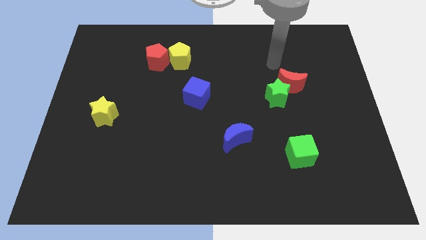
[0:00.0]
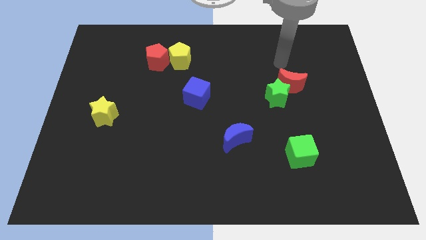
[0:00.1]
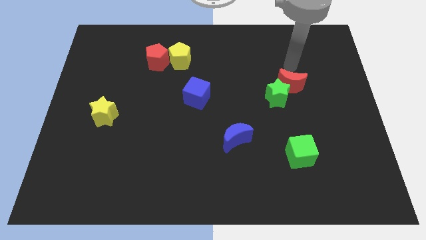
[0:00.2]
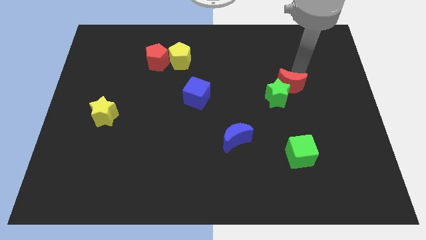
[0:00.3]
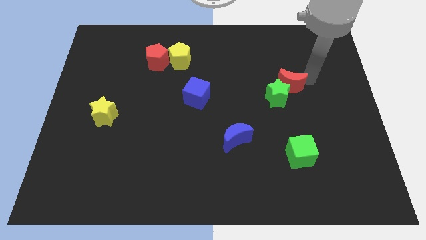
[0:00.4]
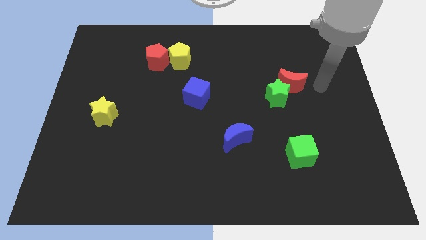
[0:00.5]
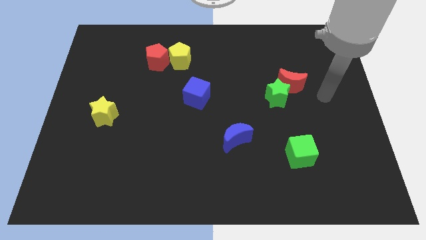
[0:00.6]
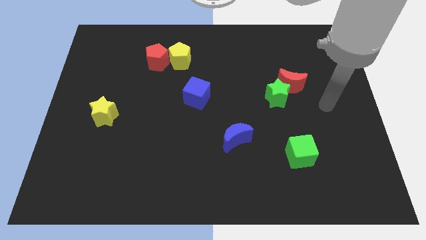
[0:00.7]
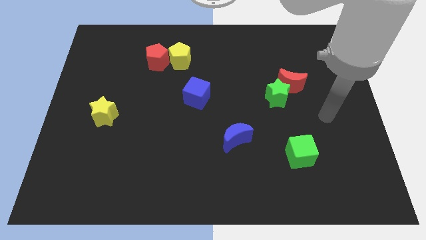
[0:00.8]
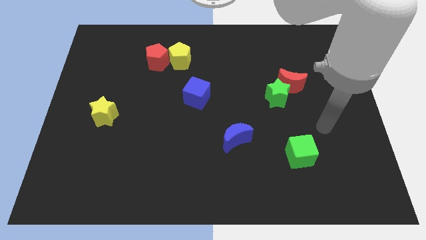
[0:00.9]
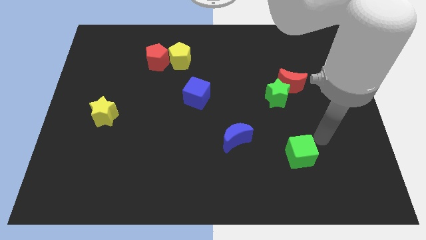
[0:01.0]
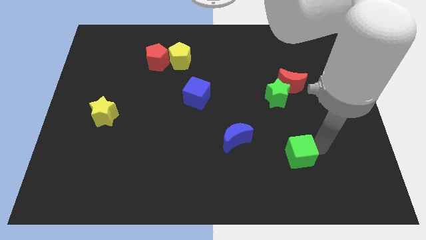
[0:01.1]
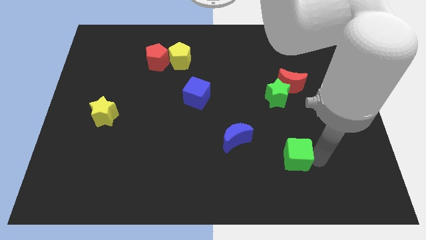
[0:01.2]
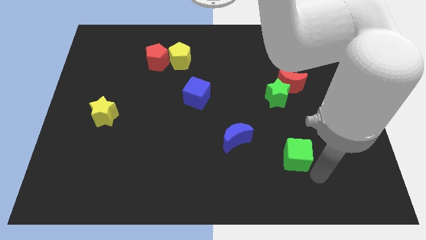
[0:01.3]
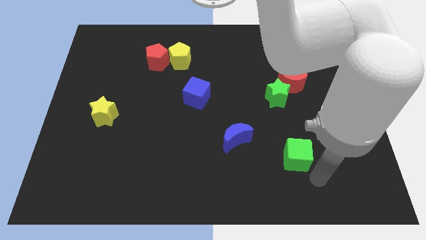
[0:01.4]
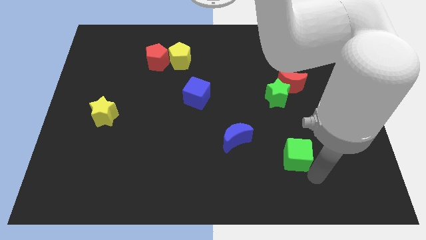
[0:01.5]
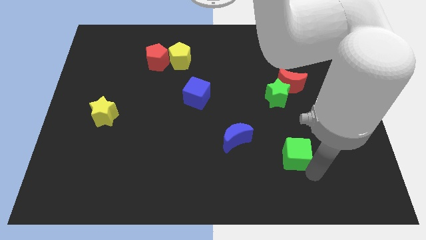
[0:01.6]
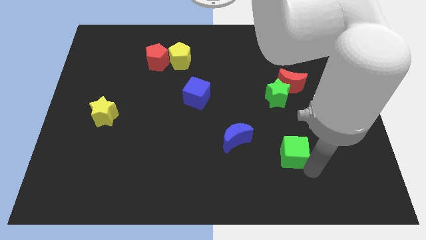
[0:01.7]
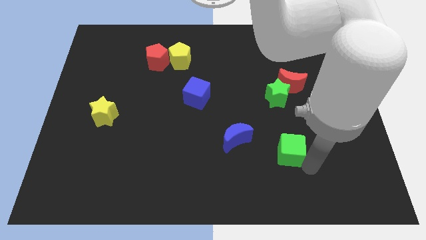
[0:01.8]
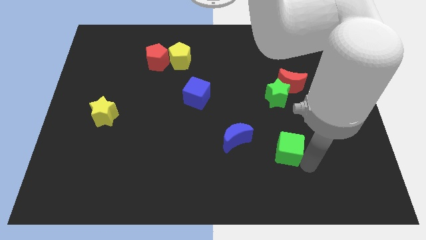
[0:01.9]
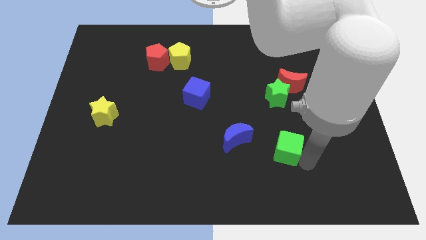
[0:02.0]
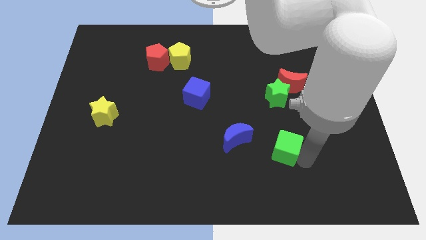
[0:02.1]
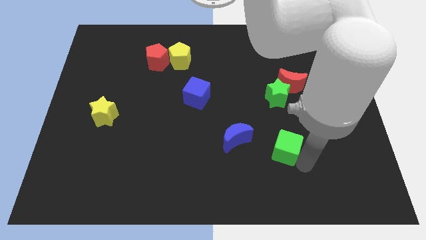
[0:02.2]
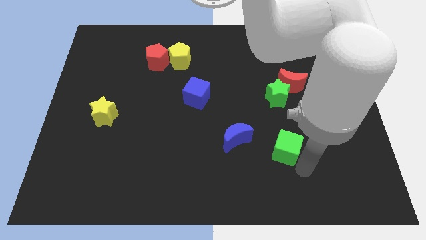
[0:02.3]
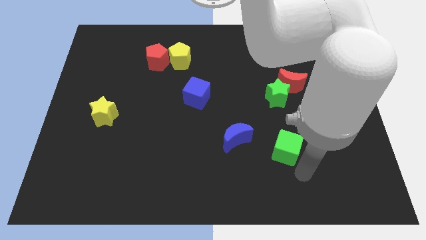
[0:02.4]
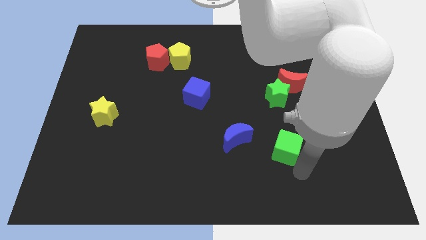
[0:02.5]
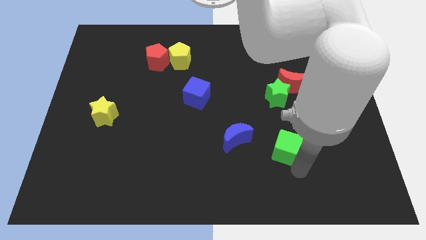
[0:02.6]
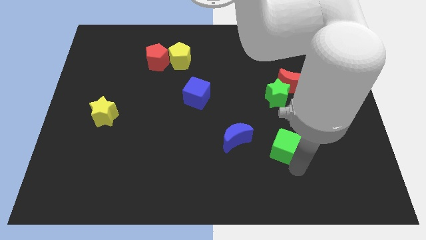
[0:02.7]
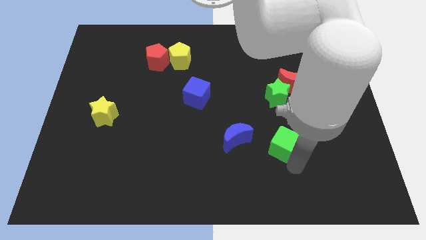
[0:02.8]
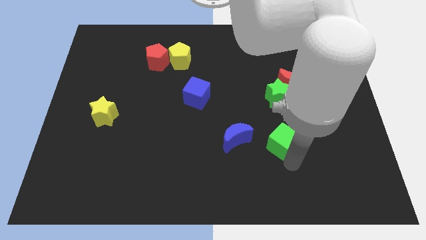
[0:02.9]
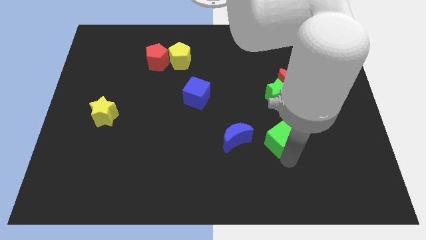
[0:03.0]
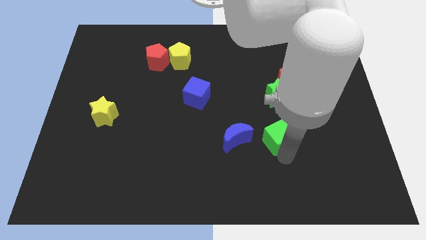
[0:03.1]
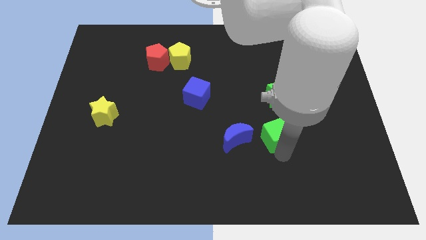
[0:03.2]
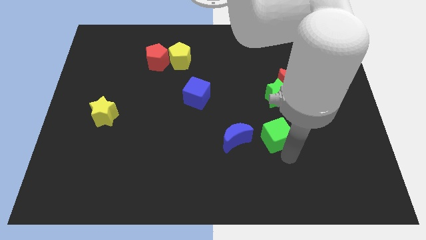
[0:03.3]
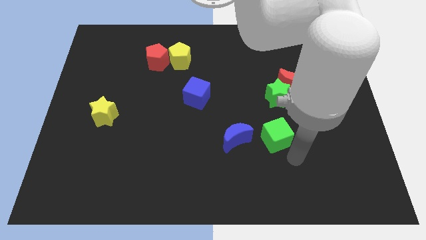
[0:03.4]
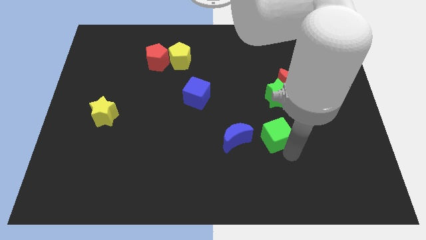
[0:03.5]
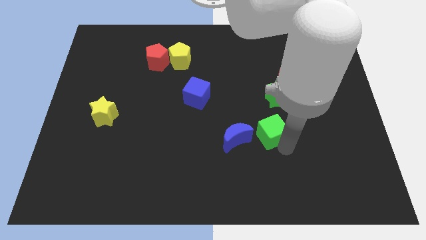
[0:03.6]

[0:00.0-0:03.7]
slightly push the green cube up and then left

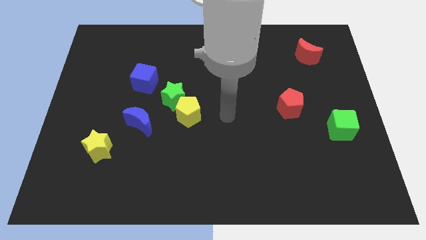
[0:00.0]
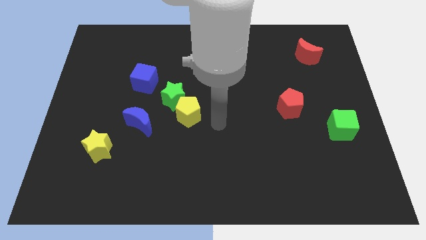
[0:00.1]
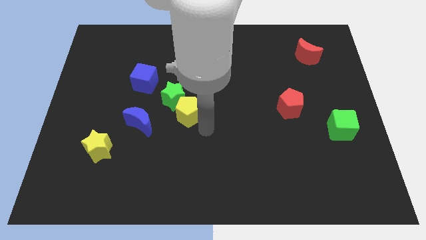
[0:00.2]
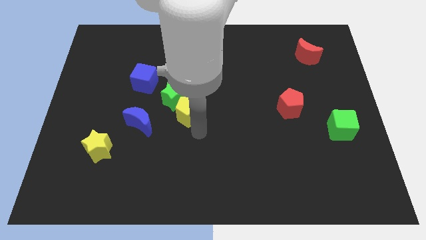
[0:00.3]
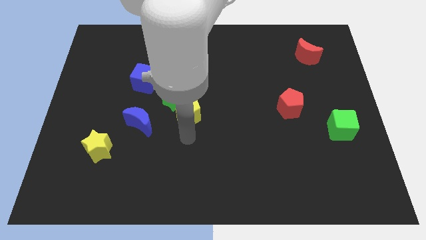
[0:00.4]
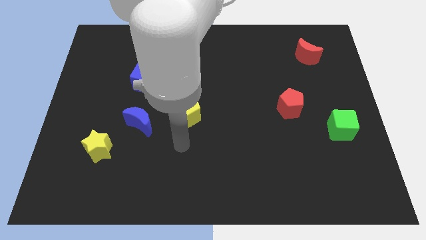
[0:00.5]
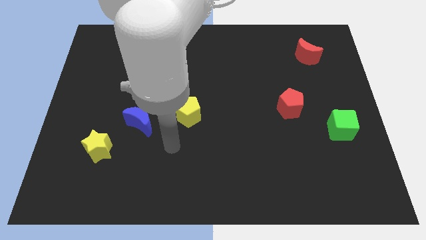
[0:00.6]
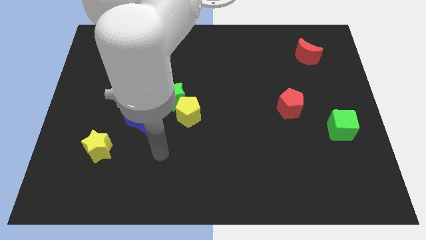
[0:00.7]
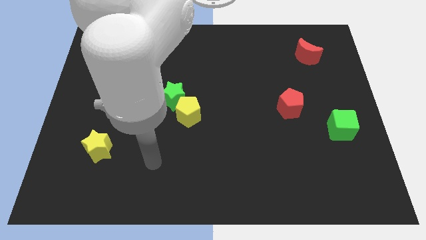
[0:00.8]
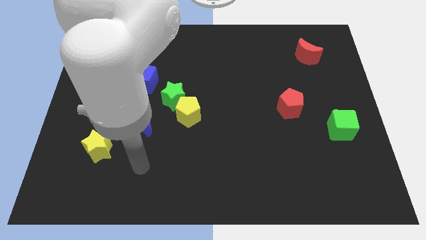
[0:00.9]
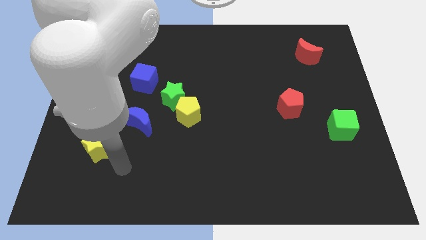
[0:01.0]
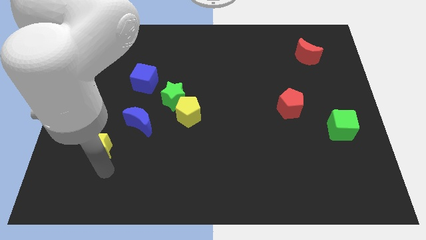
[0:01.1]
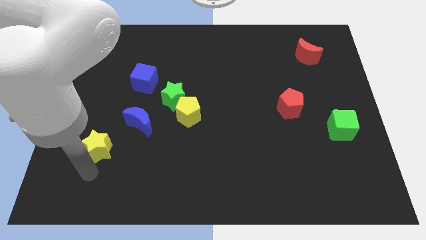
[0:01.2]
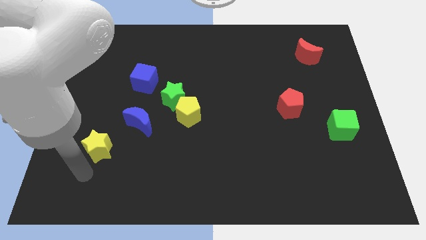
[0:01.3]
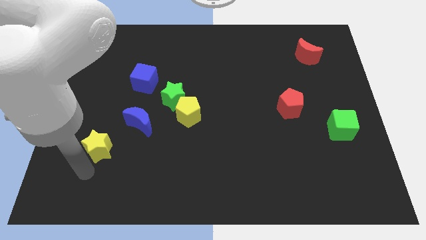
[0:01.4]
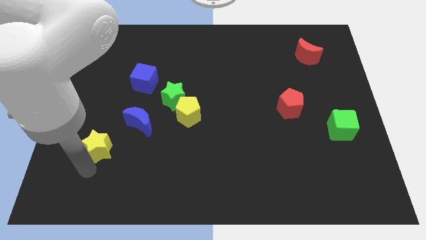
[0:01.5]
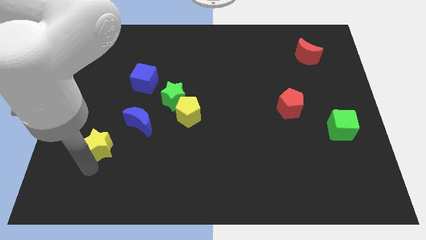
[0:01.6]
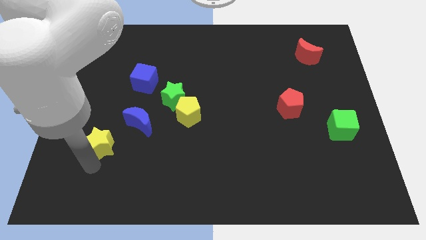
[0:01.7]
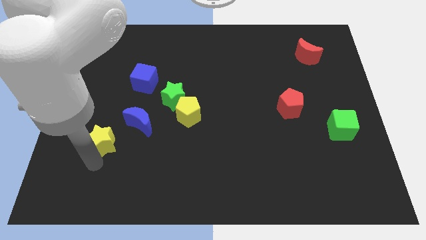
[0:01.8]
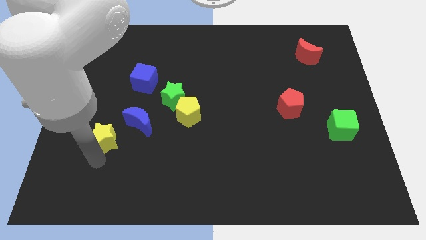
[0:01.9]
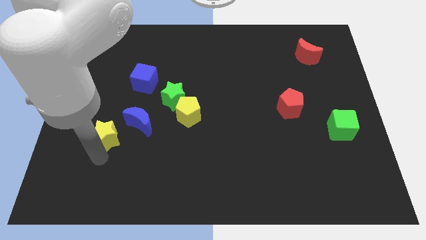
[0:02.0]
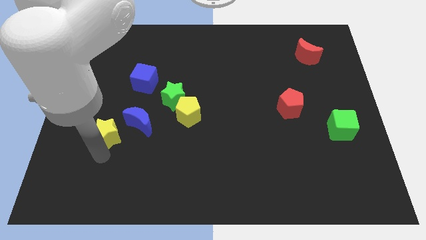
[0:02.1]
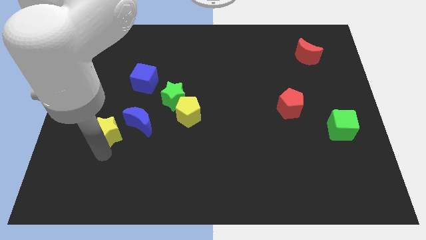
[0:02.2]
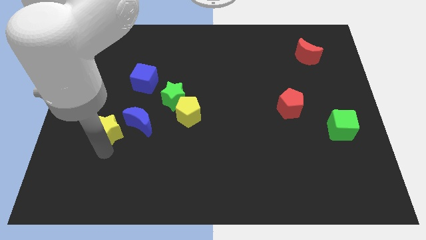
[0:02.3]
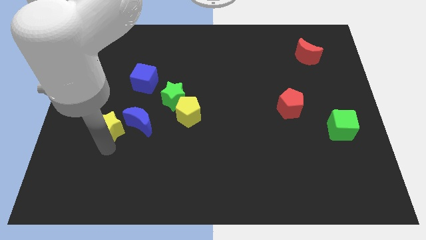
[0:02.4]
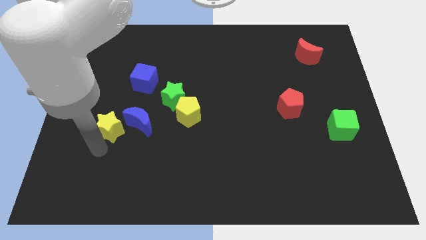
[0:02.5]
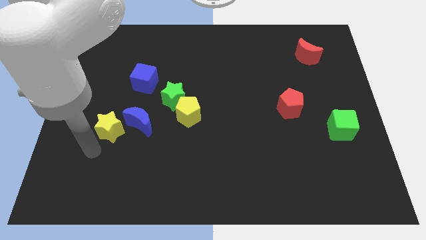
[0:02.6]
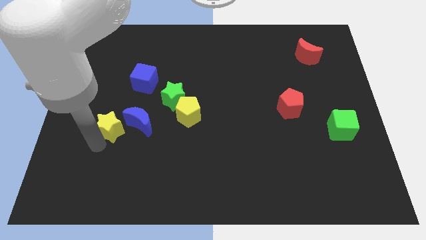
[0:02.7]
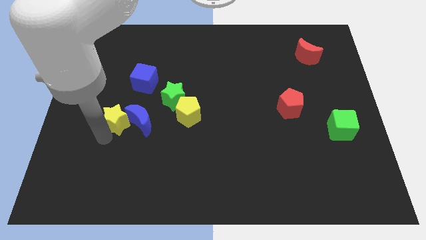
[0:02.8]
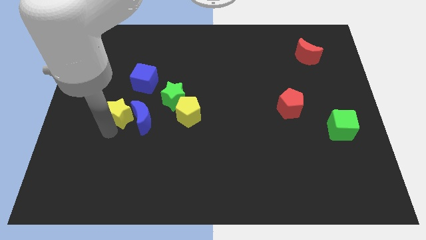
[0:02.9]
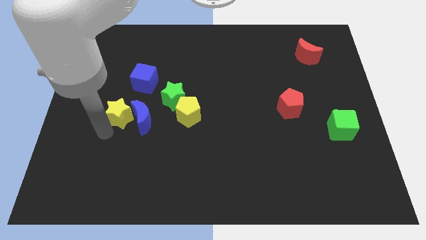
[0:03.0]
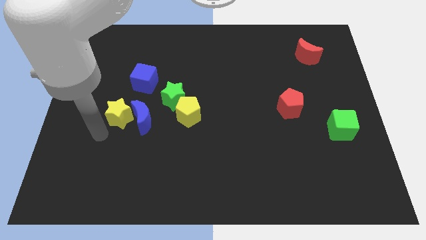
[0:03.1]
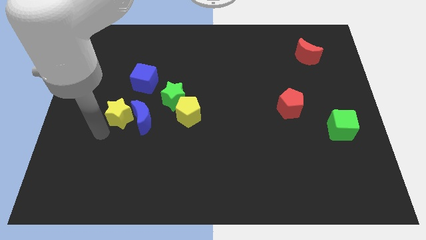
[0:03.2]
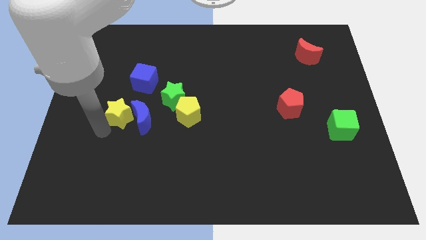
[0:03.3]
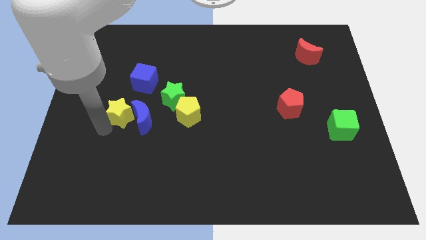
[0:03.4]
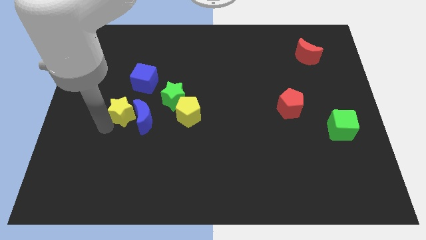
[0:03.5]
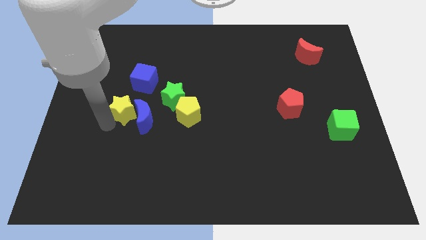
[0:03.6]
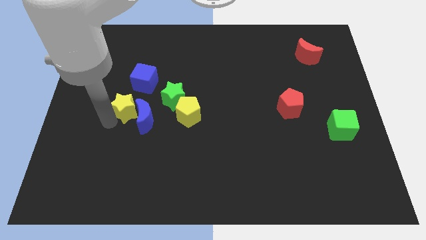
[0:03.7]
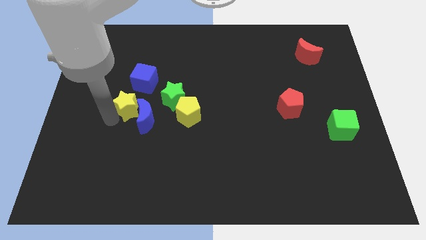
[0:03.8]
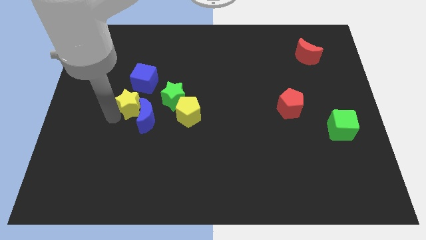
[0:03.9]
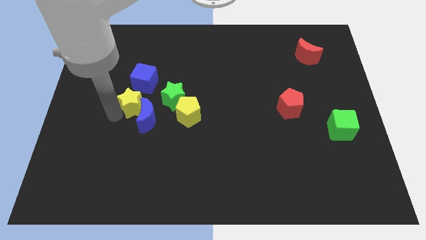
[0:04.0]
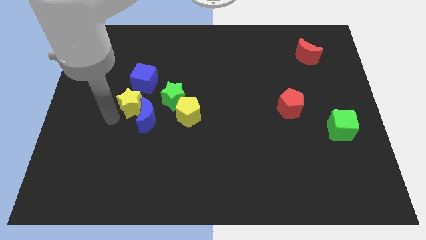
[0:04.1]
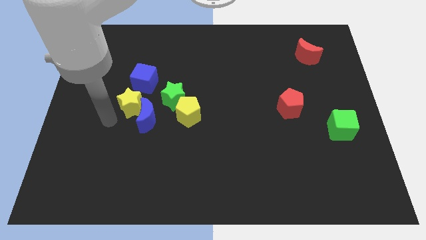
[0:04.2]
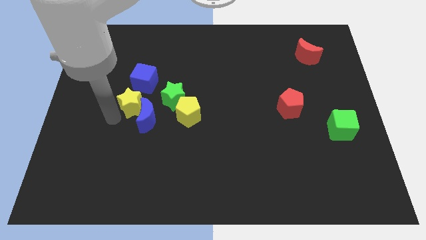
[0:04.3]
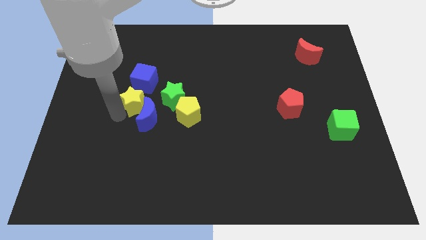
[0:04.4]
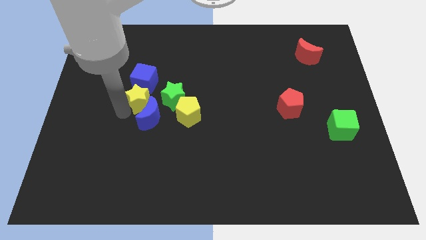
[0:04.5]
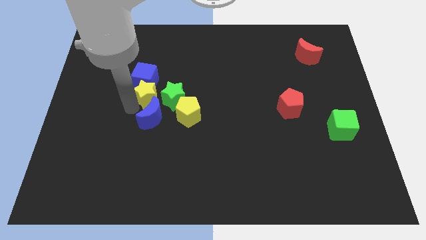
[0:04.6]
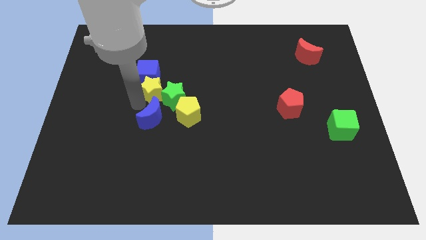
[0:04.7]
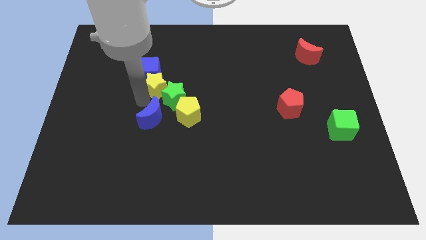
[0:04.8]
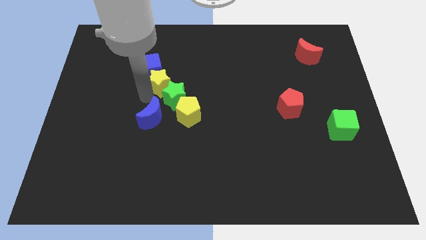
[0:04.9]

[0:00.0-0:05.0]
push the yellow star diagonally upwards and to the right
